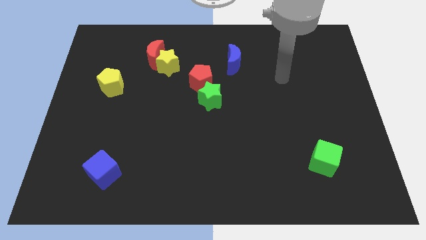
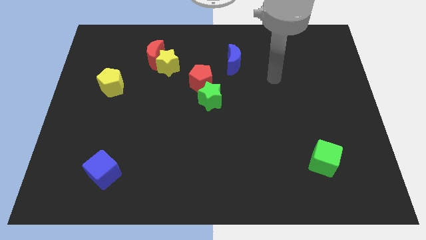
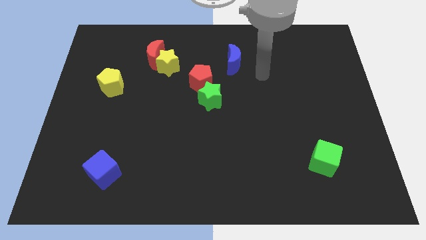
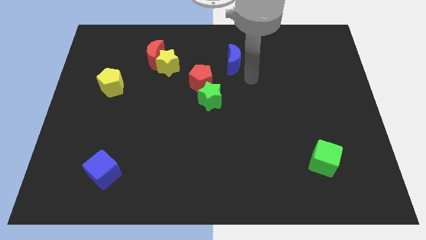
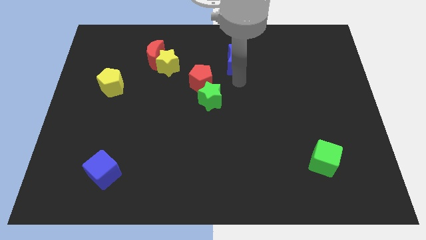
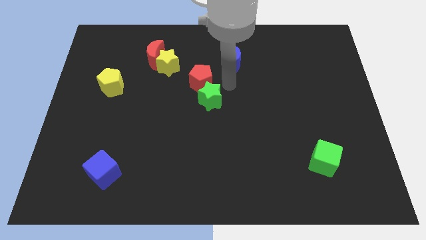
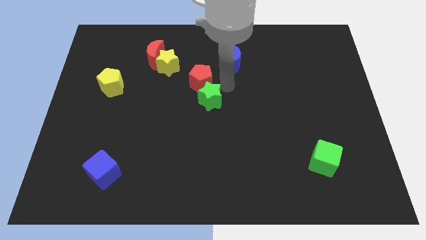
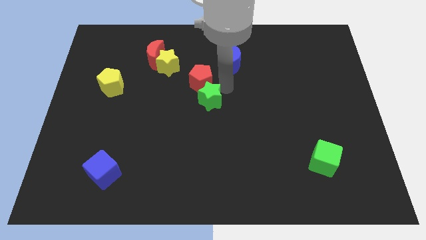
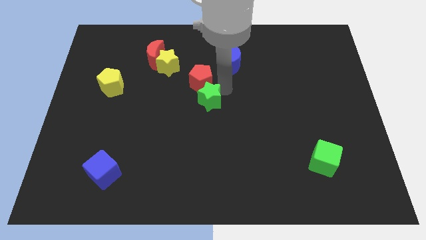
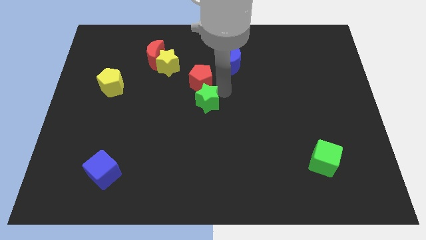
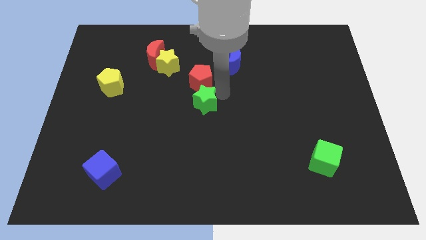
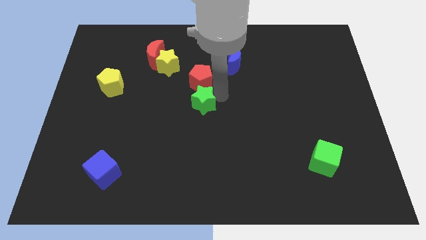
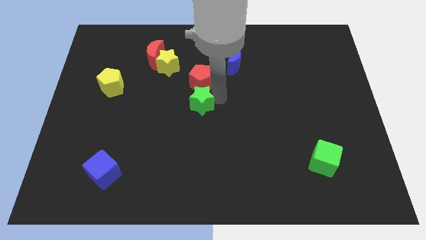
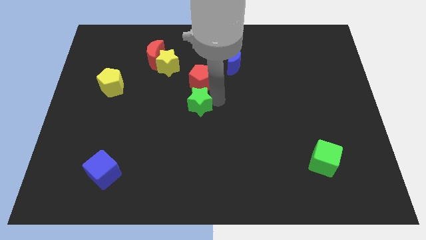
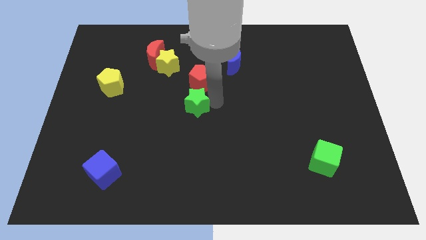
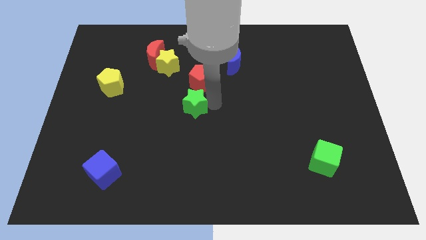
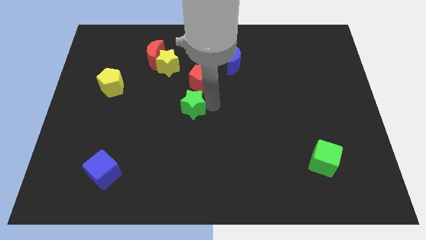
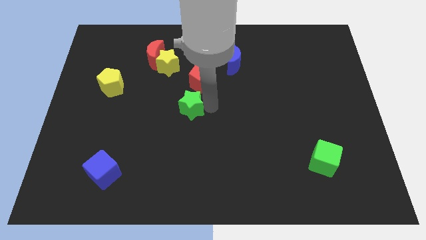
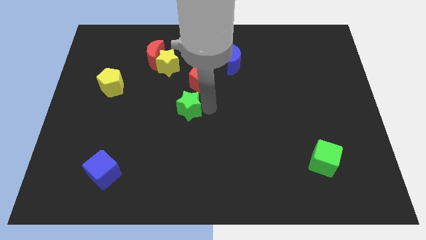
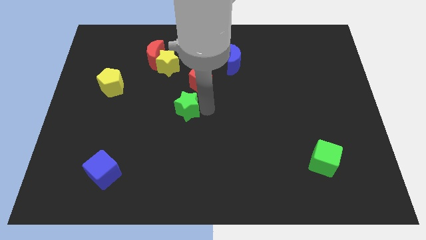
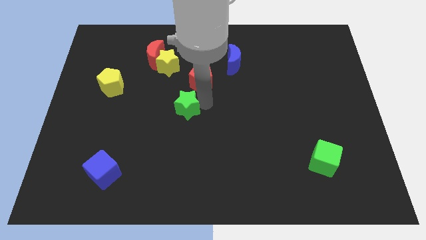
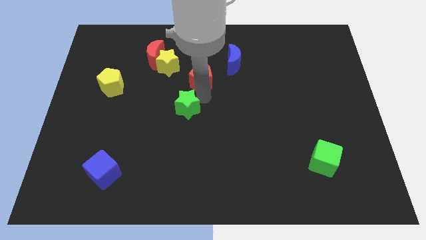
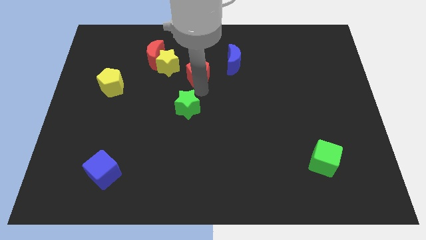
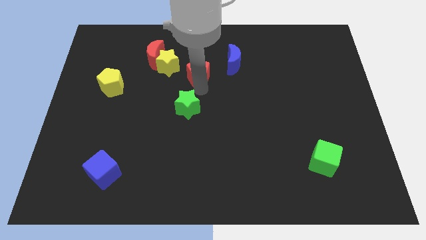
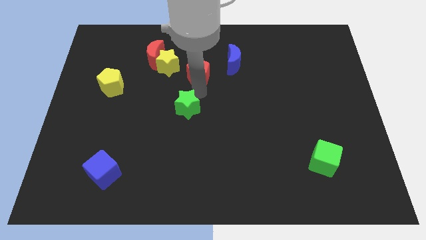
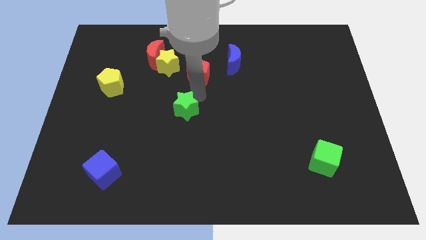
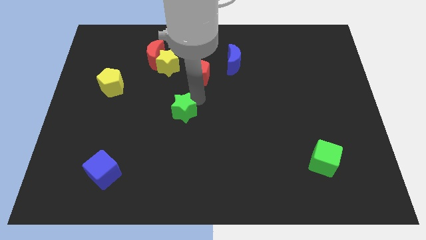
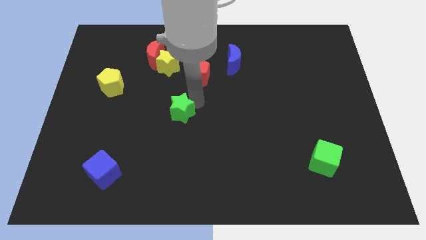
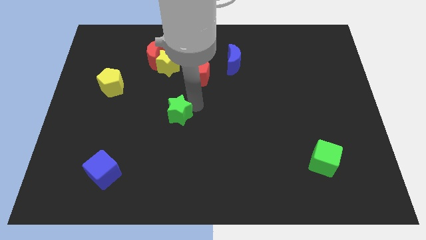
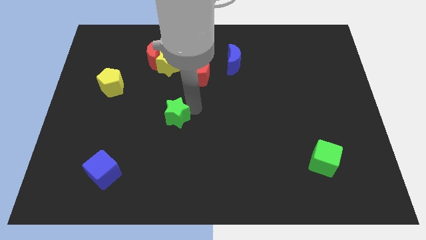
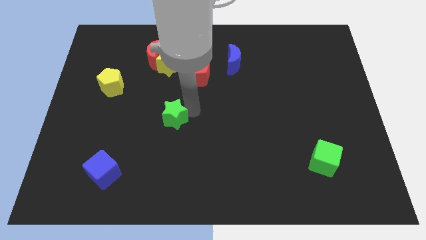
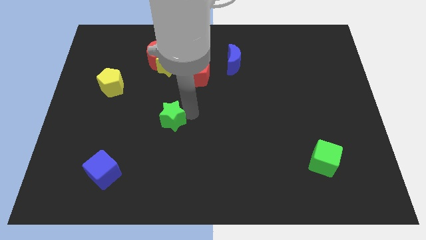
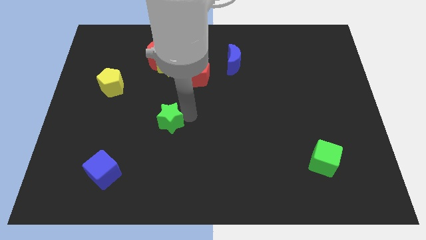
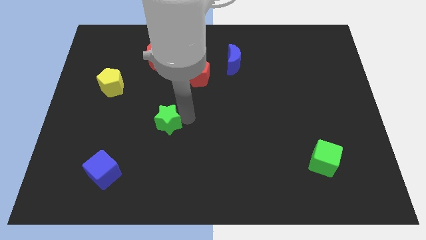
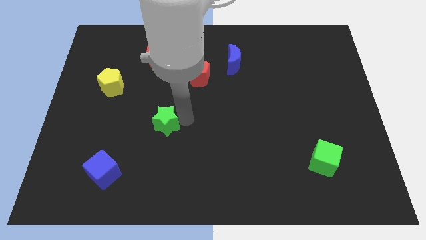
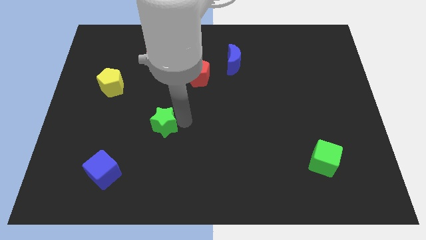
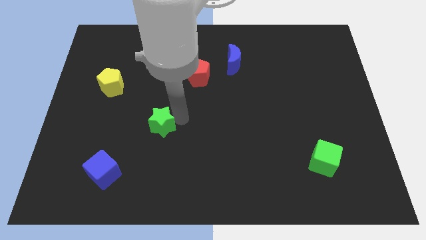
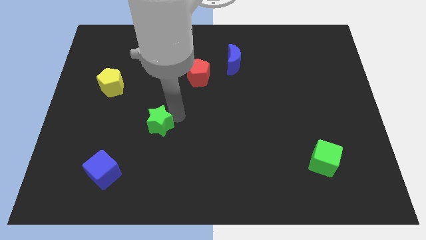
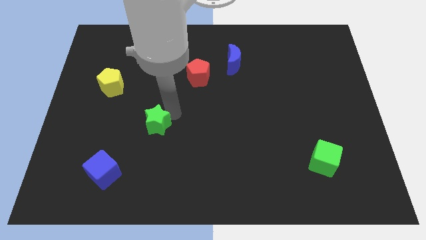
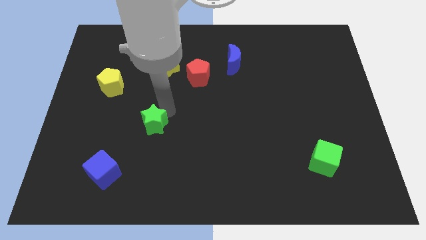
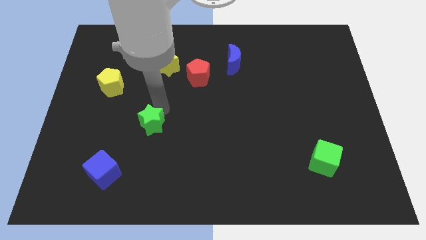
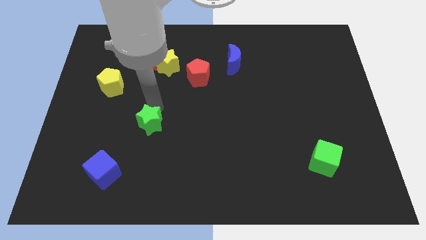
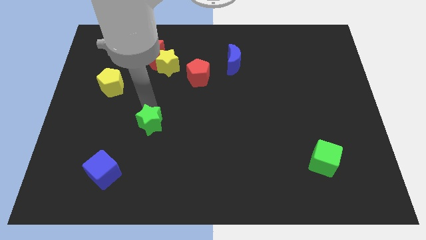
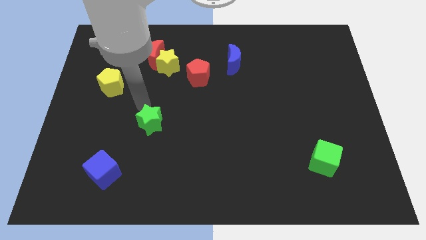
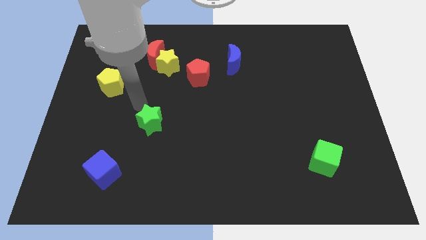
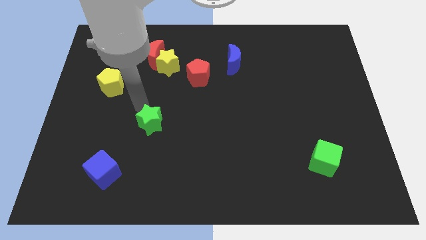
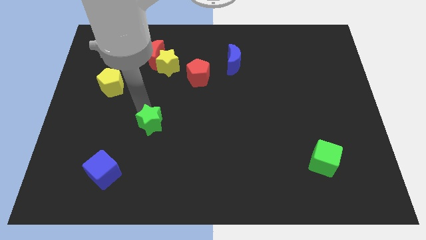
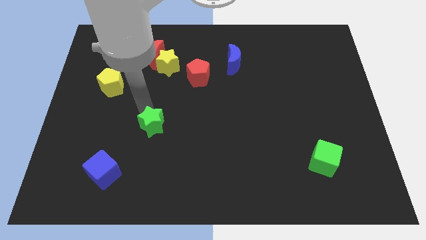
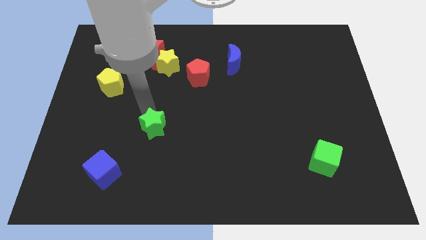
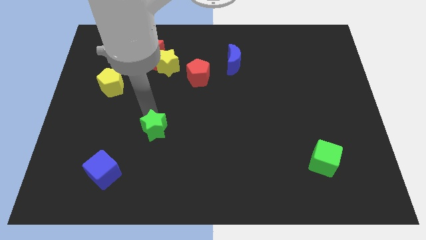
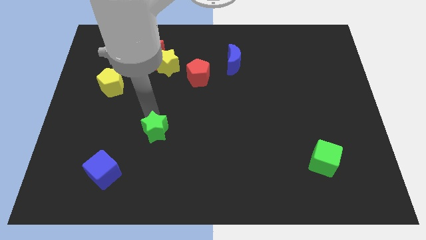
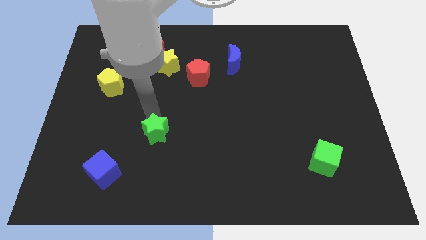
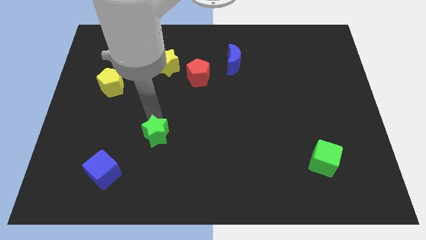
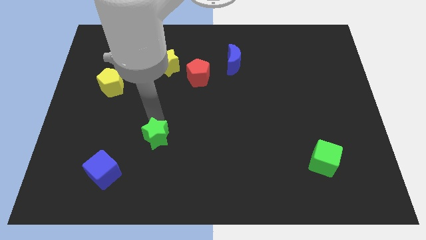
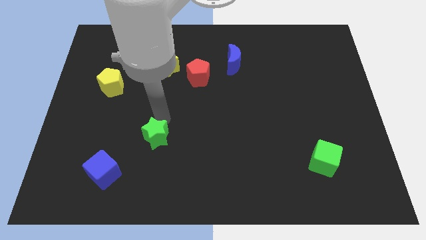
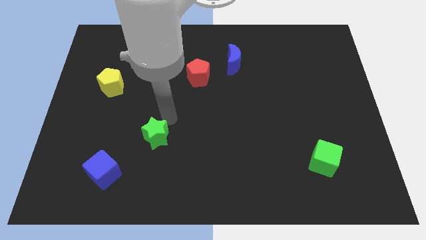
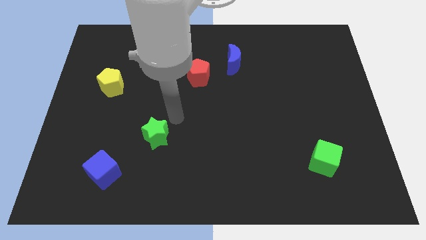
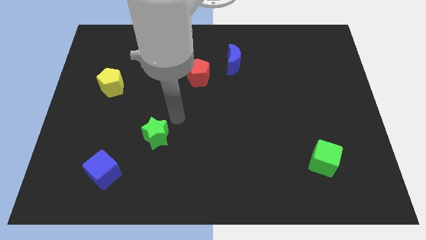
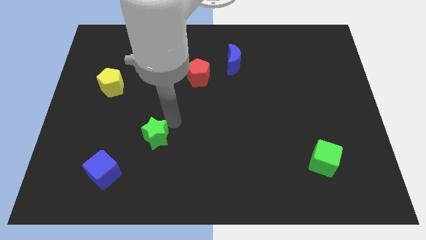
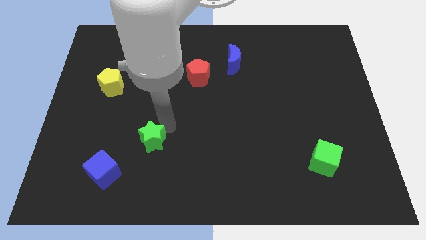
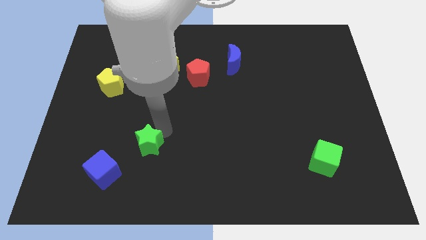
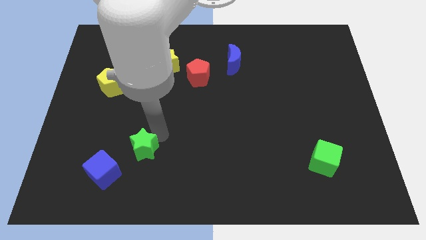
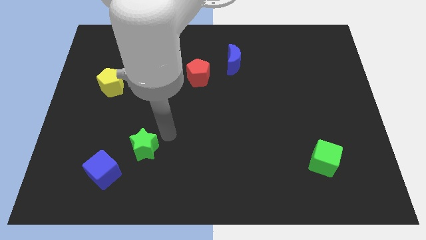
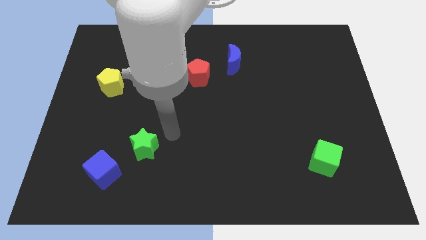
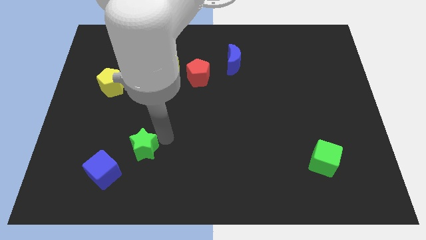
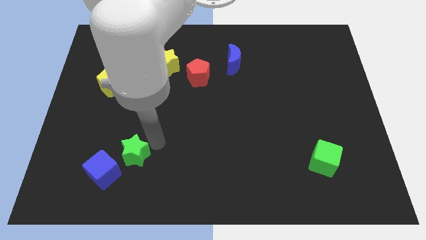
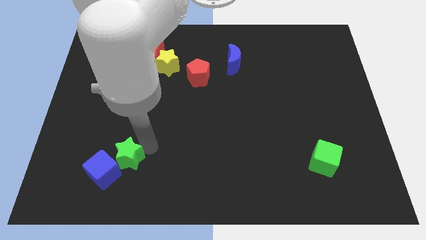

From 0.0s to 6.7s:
move the green star next to the blue cube

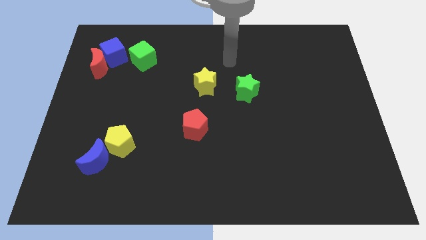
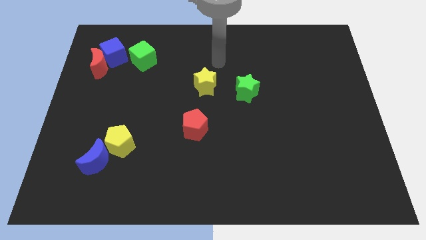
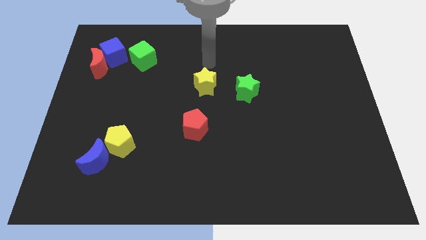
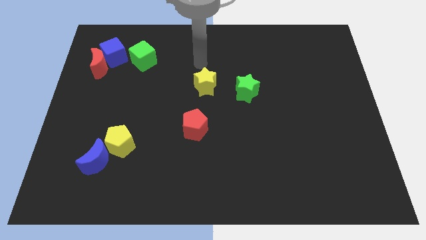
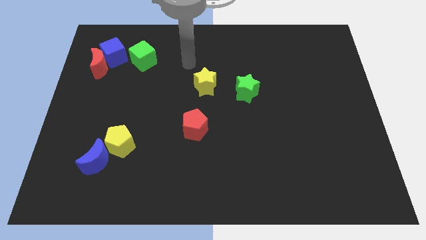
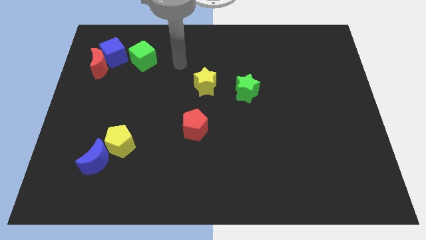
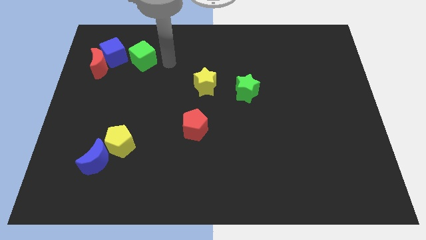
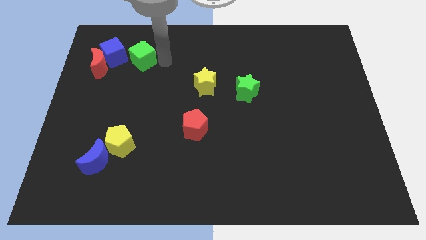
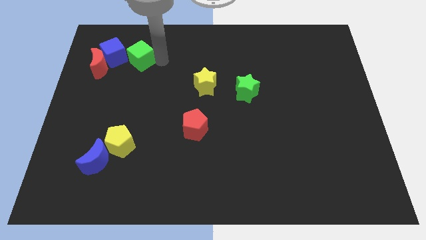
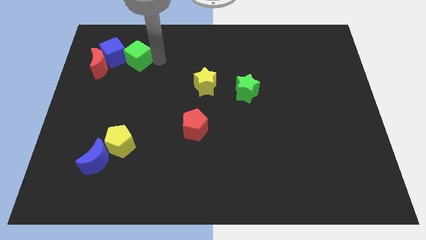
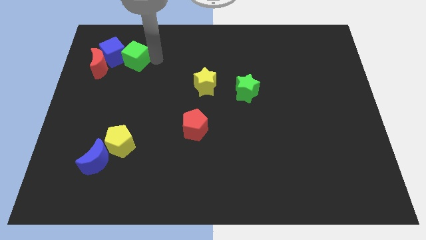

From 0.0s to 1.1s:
put the green cube towards the blue cube
